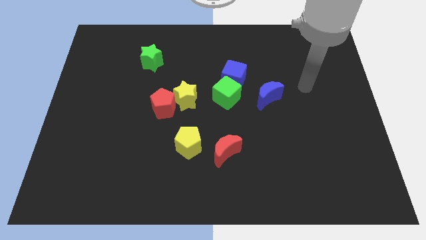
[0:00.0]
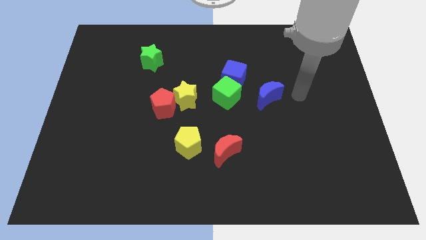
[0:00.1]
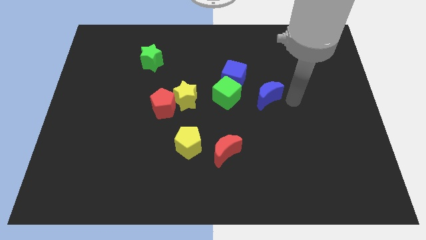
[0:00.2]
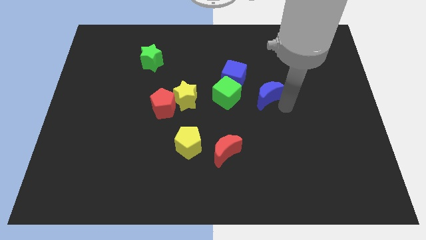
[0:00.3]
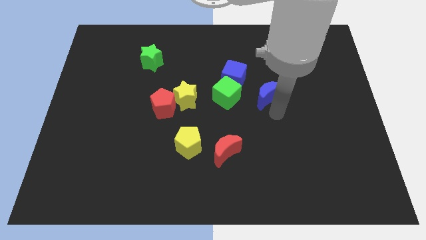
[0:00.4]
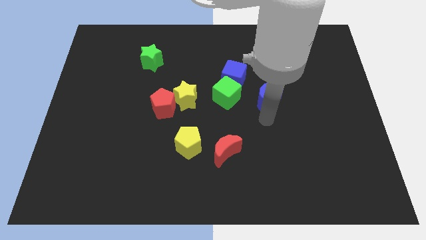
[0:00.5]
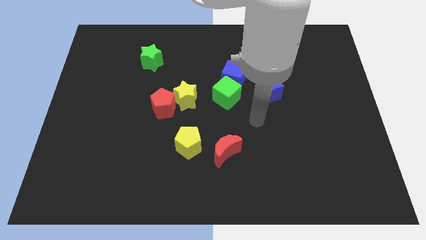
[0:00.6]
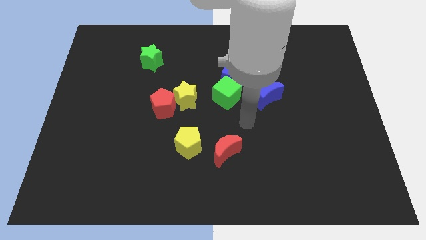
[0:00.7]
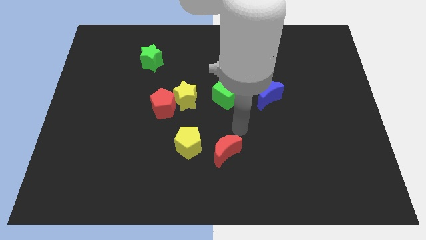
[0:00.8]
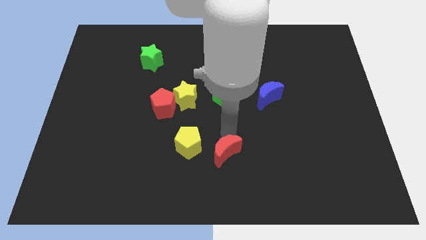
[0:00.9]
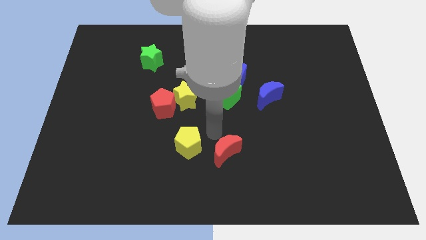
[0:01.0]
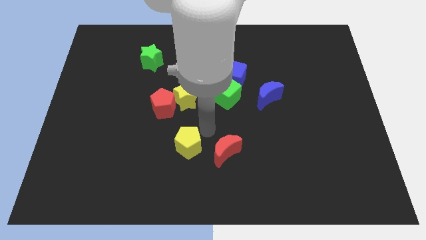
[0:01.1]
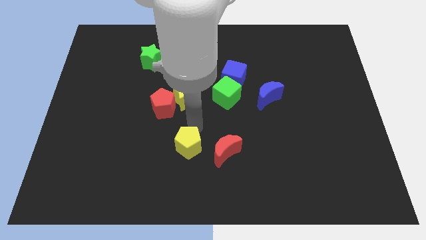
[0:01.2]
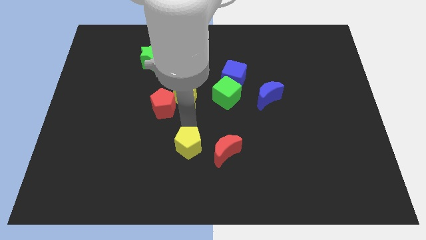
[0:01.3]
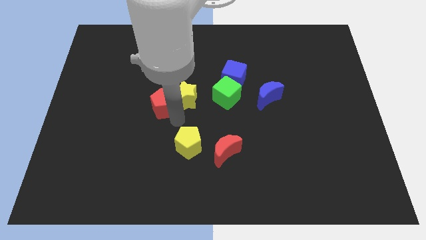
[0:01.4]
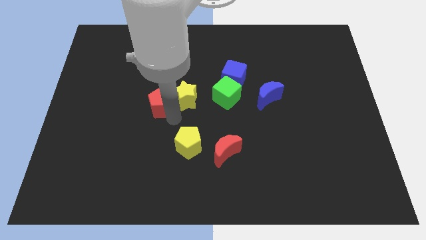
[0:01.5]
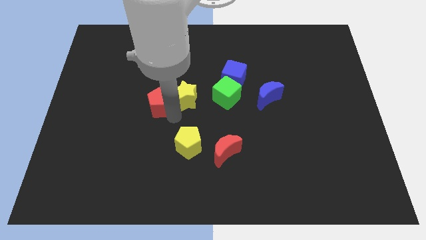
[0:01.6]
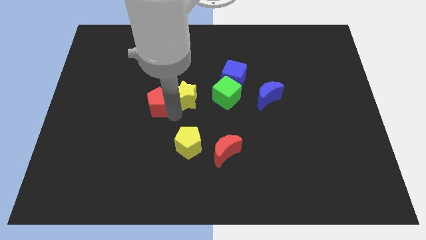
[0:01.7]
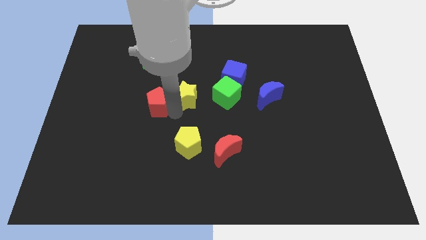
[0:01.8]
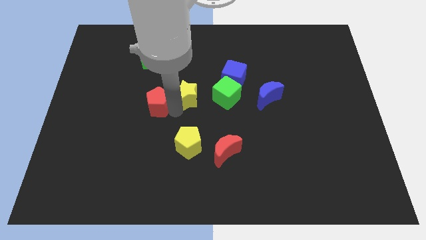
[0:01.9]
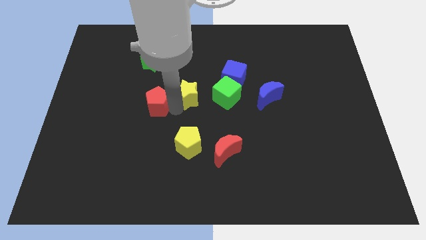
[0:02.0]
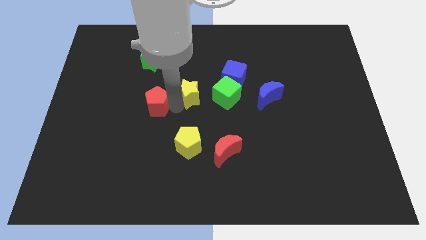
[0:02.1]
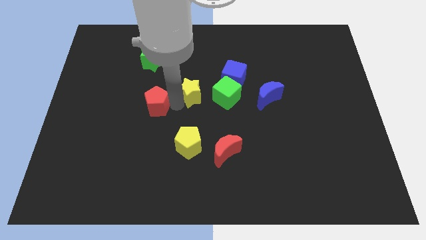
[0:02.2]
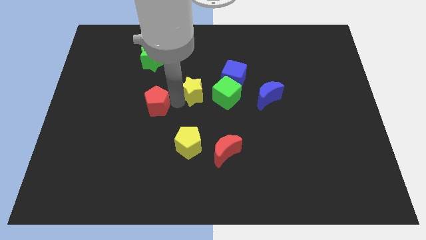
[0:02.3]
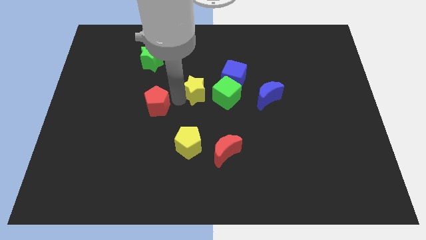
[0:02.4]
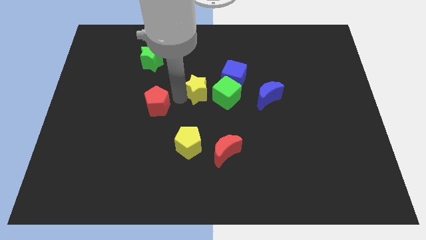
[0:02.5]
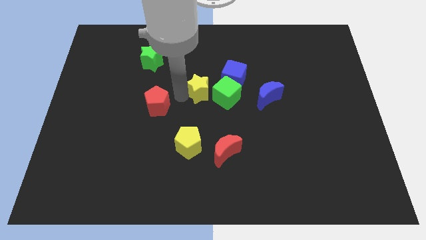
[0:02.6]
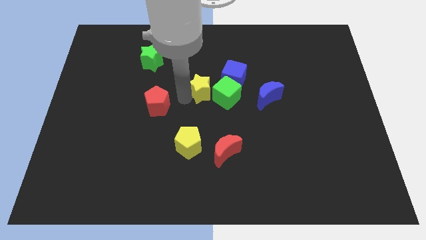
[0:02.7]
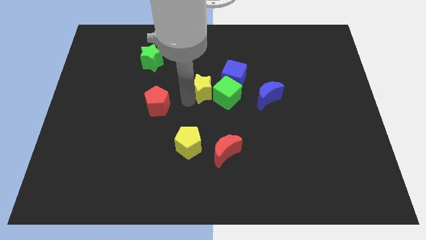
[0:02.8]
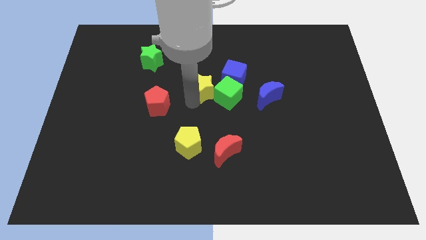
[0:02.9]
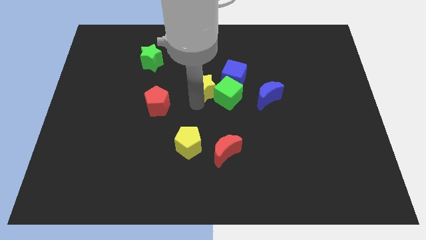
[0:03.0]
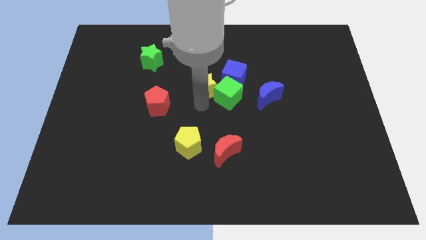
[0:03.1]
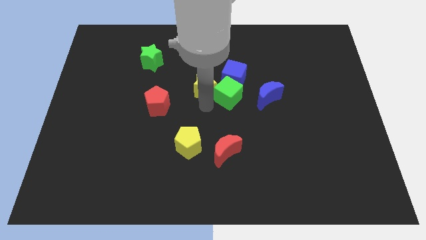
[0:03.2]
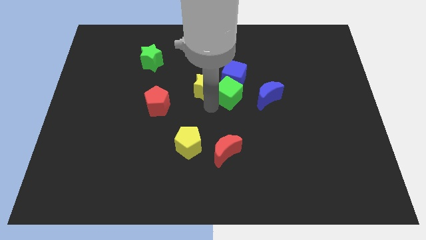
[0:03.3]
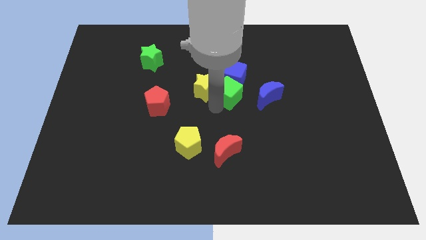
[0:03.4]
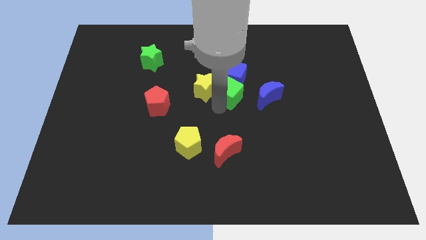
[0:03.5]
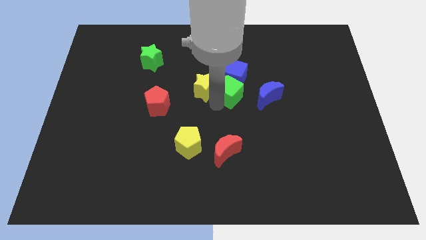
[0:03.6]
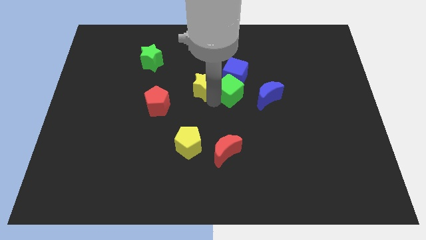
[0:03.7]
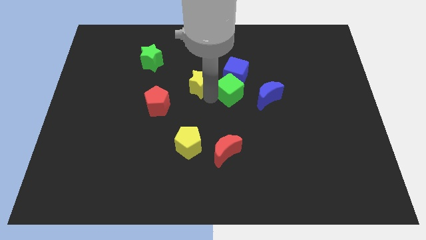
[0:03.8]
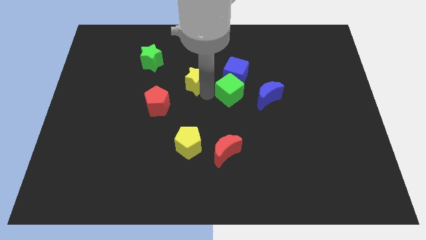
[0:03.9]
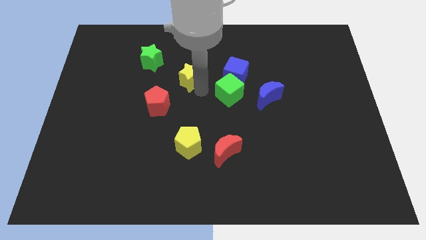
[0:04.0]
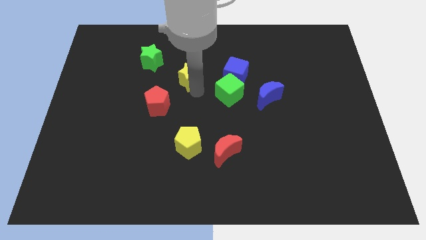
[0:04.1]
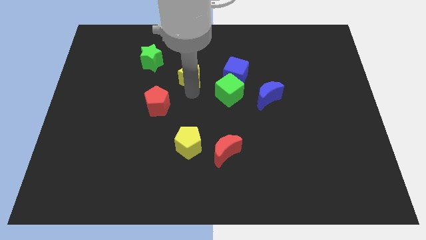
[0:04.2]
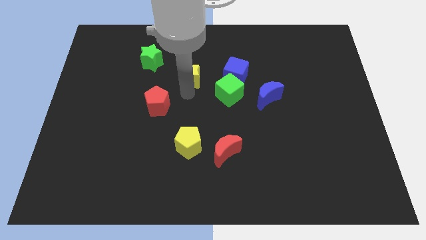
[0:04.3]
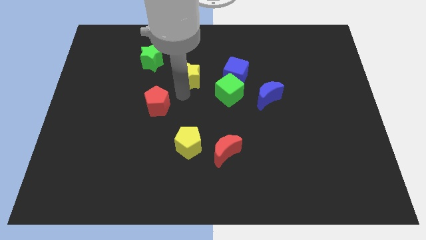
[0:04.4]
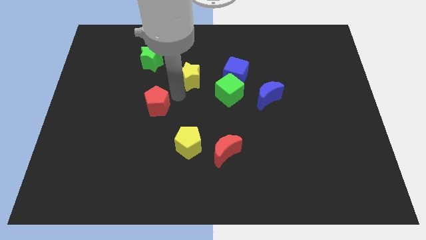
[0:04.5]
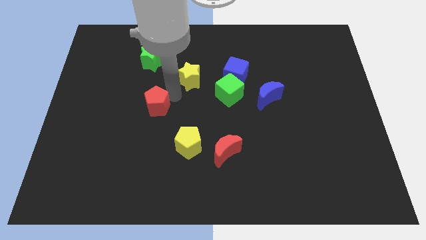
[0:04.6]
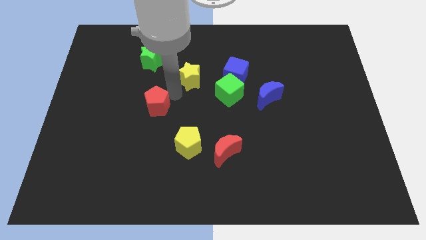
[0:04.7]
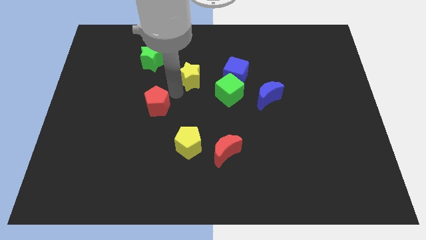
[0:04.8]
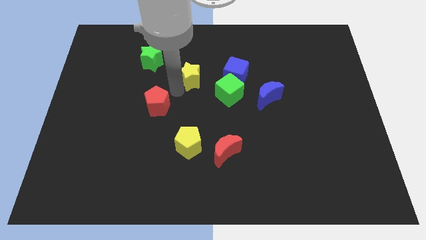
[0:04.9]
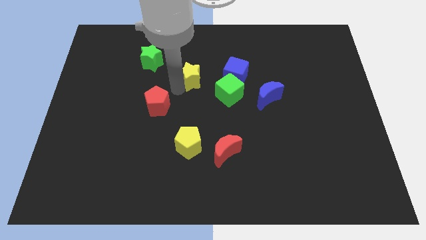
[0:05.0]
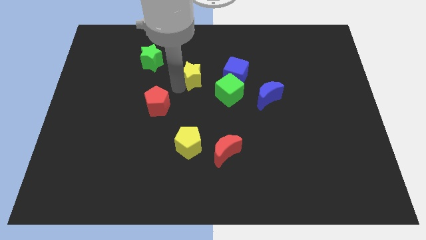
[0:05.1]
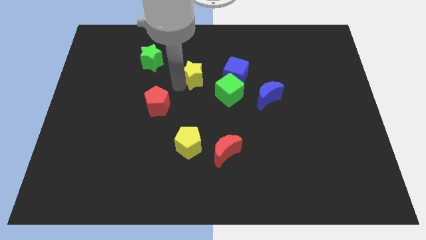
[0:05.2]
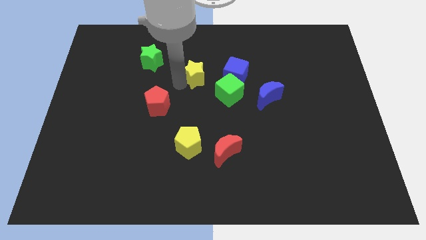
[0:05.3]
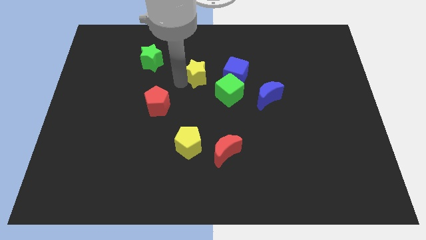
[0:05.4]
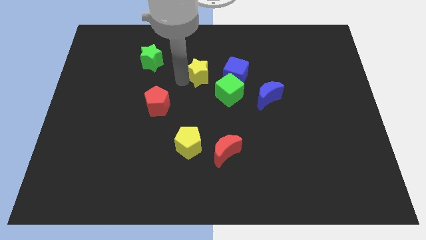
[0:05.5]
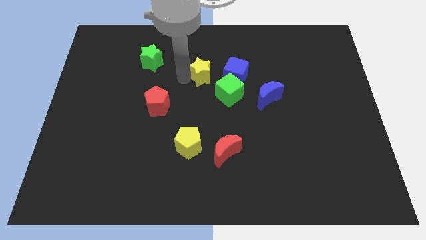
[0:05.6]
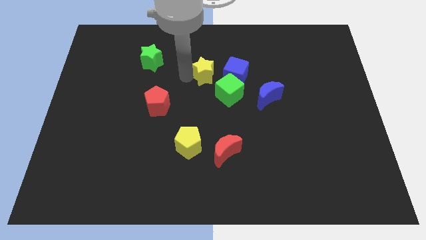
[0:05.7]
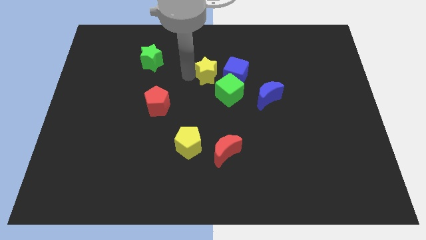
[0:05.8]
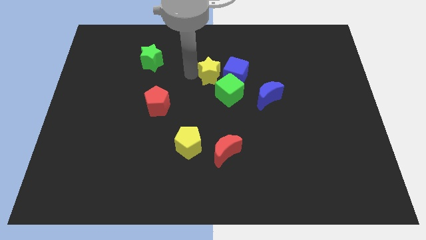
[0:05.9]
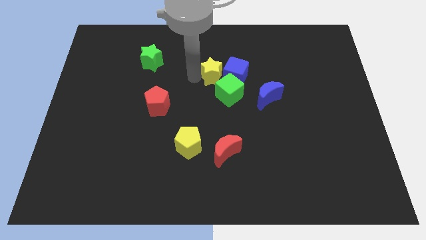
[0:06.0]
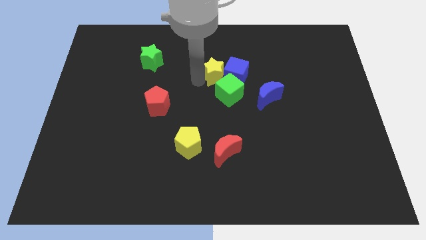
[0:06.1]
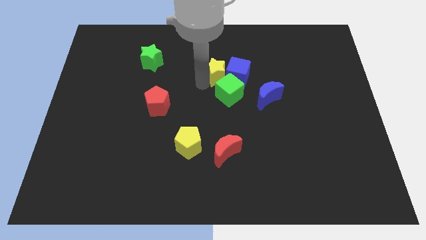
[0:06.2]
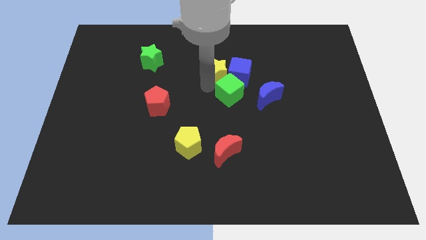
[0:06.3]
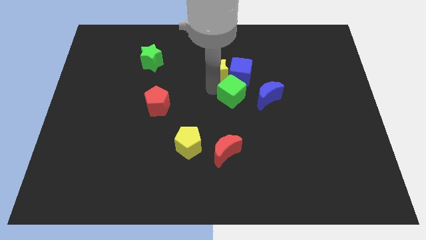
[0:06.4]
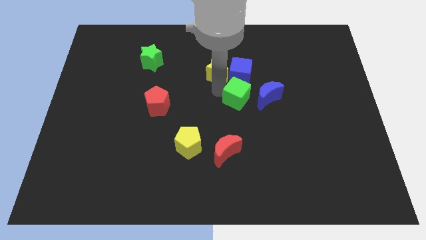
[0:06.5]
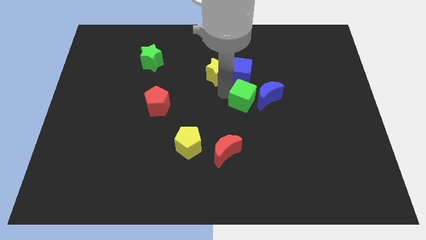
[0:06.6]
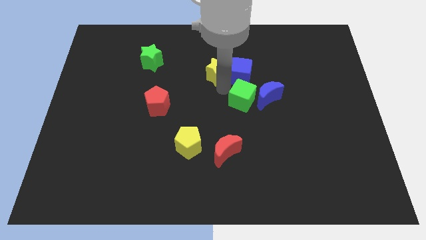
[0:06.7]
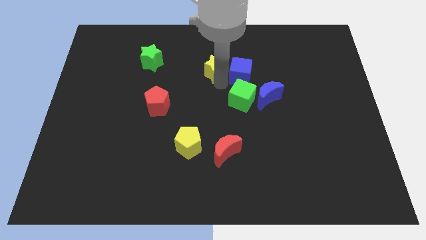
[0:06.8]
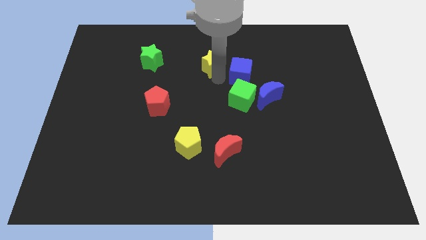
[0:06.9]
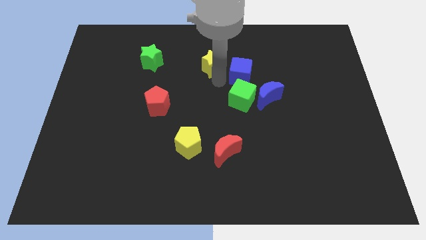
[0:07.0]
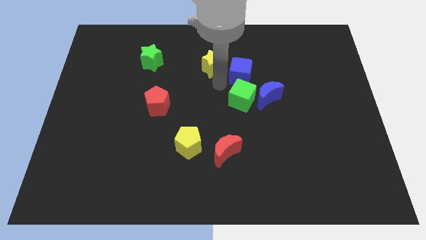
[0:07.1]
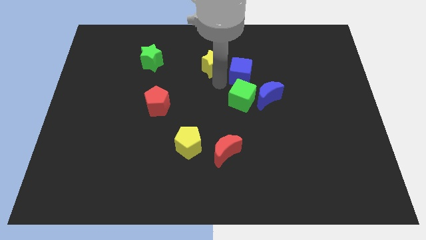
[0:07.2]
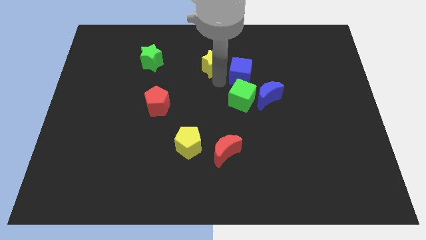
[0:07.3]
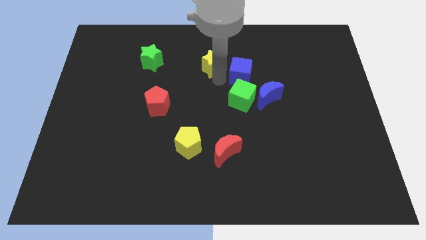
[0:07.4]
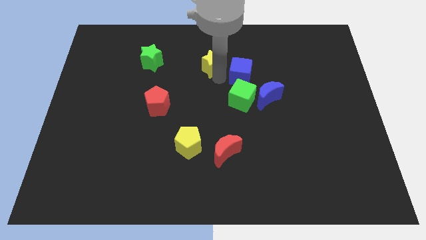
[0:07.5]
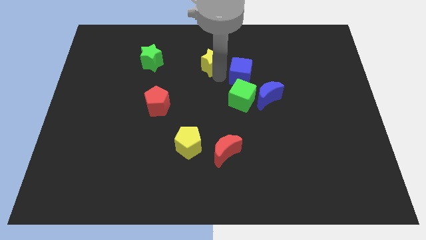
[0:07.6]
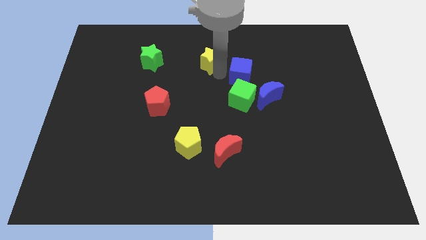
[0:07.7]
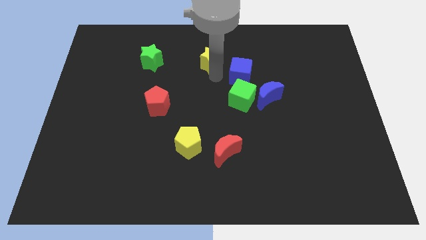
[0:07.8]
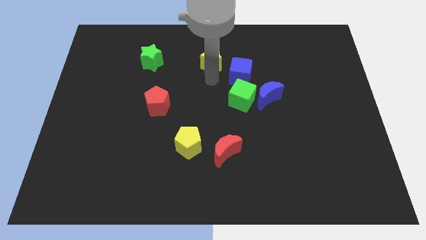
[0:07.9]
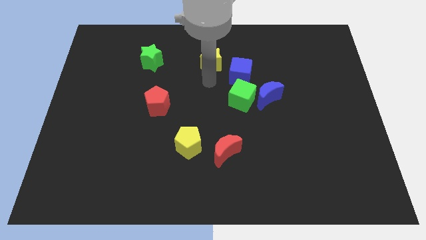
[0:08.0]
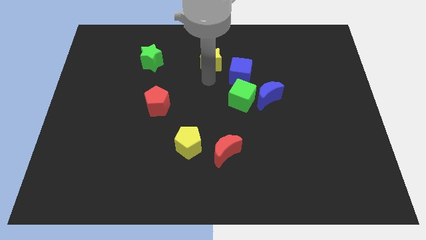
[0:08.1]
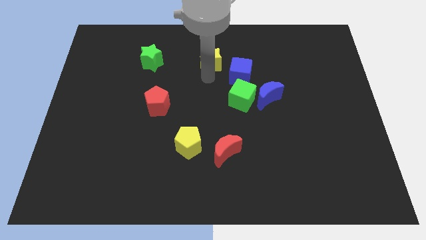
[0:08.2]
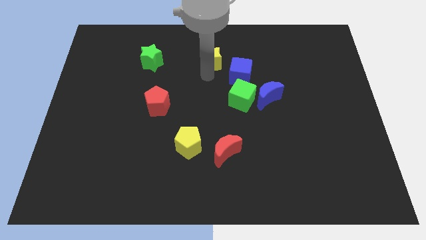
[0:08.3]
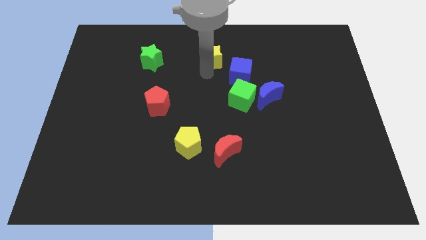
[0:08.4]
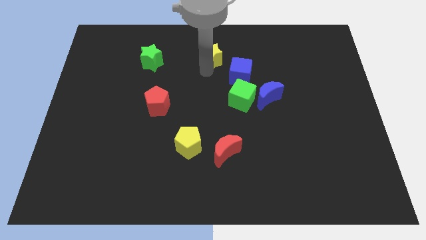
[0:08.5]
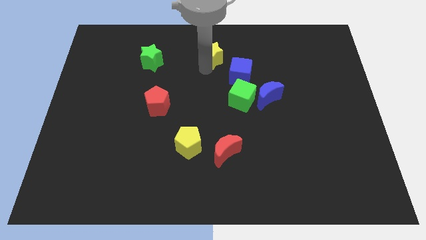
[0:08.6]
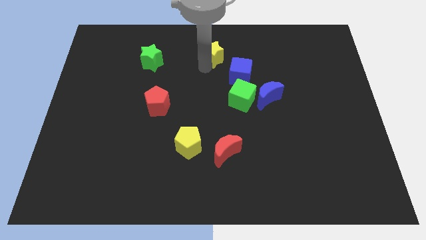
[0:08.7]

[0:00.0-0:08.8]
move the yellow star to the top
